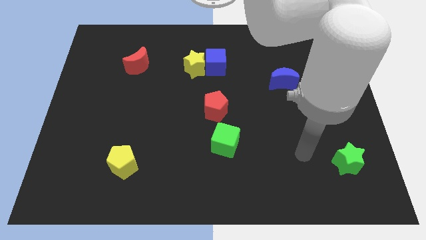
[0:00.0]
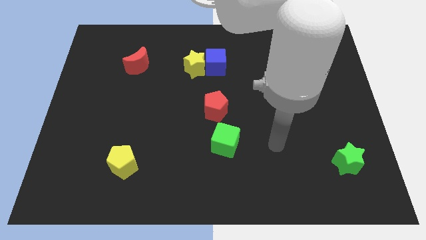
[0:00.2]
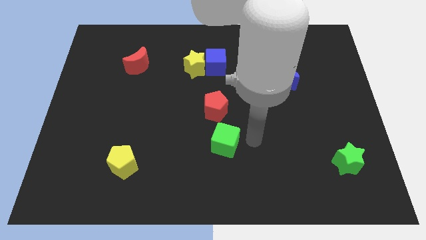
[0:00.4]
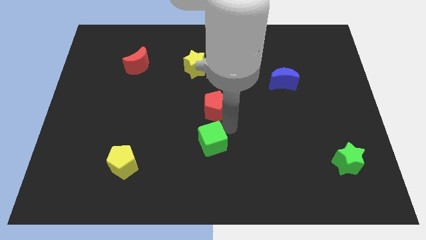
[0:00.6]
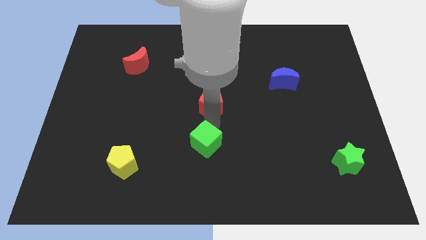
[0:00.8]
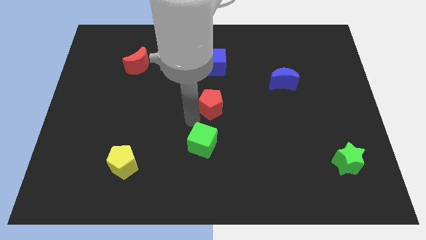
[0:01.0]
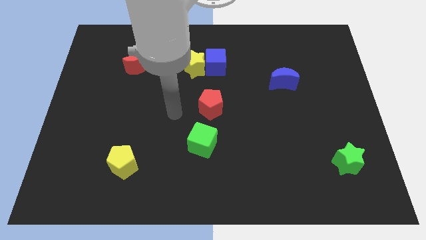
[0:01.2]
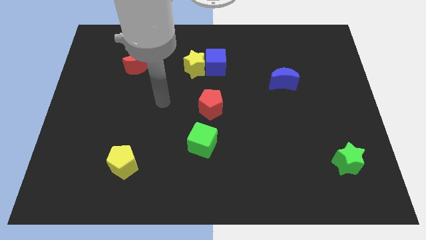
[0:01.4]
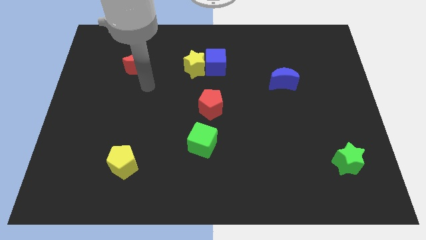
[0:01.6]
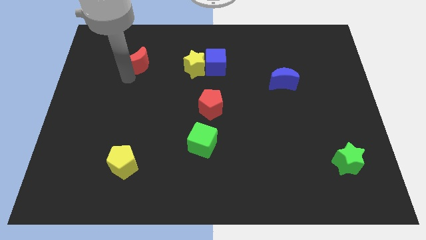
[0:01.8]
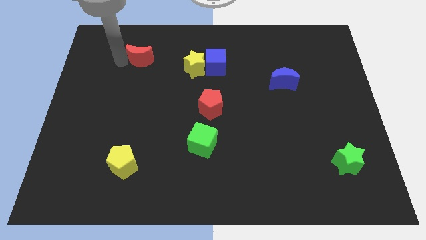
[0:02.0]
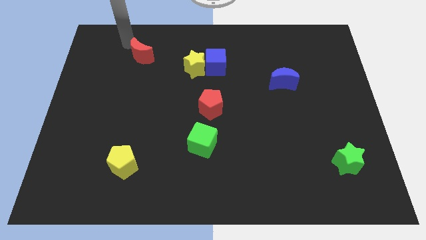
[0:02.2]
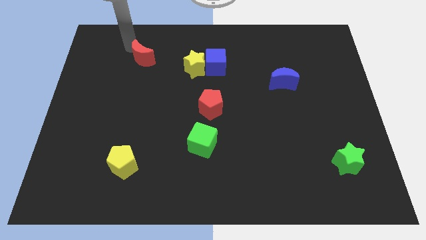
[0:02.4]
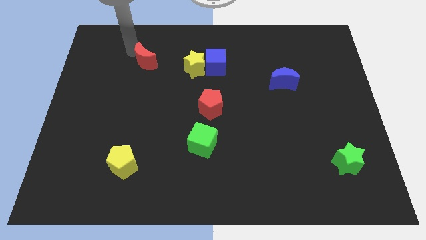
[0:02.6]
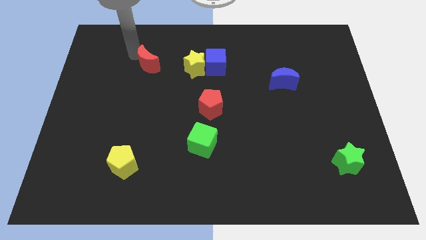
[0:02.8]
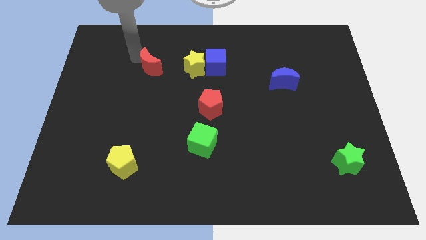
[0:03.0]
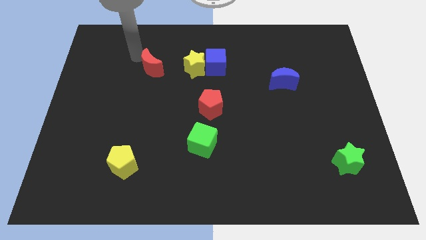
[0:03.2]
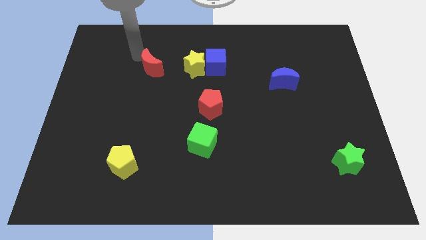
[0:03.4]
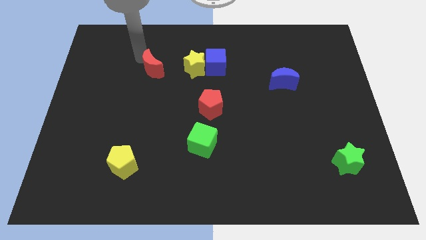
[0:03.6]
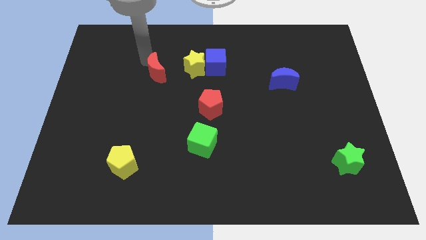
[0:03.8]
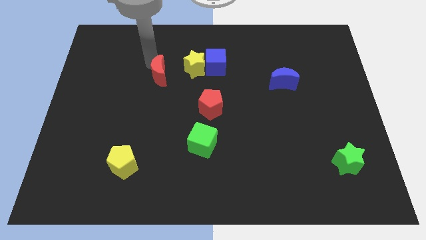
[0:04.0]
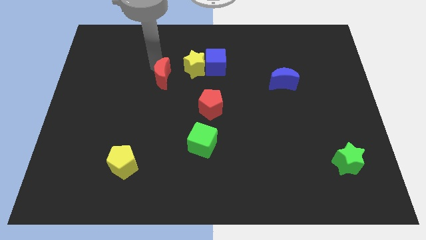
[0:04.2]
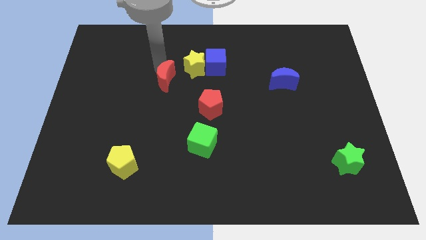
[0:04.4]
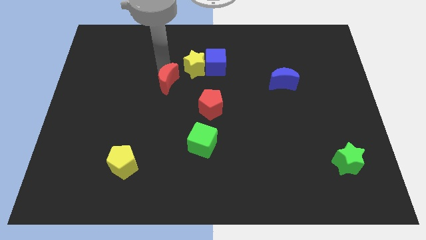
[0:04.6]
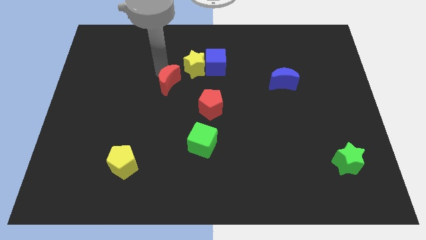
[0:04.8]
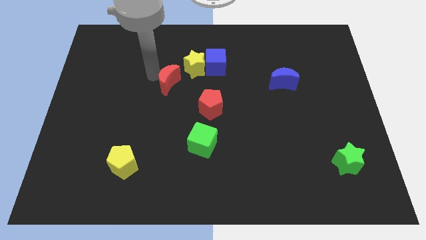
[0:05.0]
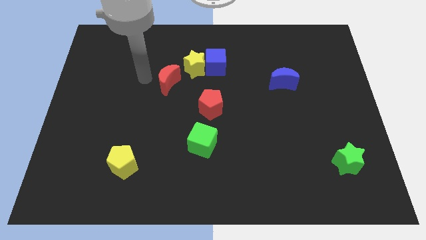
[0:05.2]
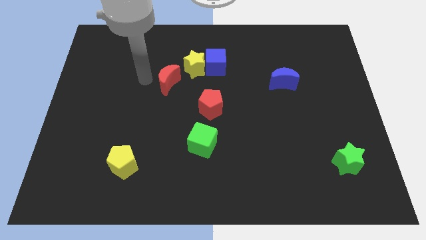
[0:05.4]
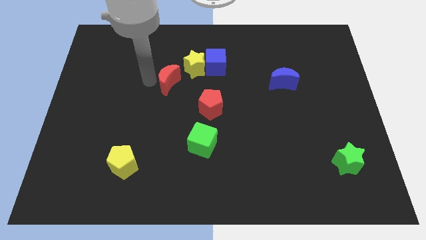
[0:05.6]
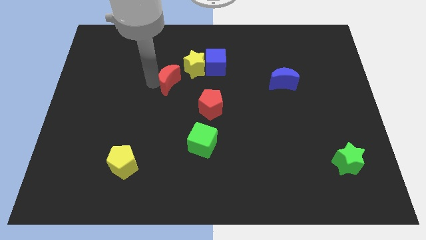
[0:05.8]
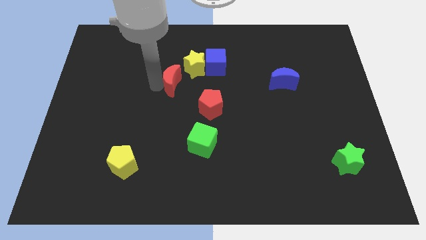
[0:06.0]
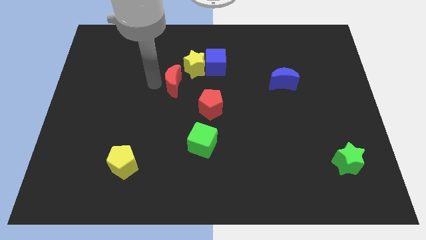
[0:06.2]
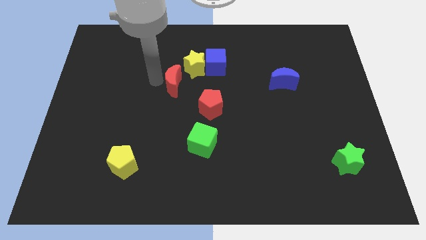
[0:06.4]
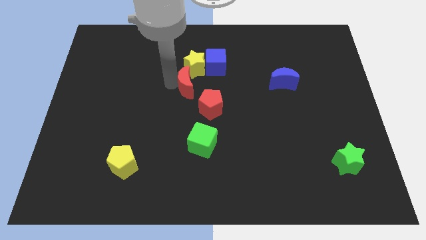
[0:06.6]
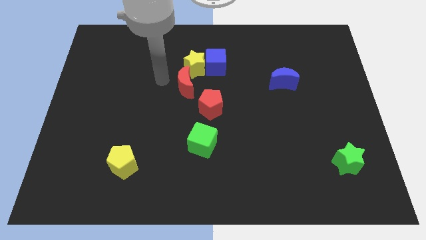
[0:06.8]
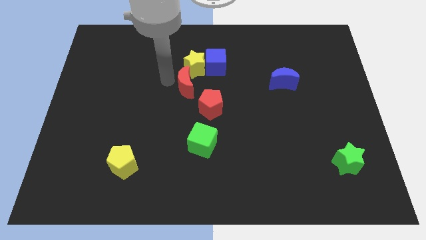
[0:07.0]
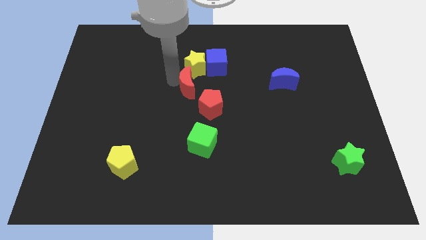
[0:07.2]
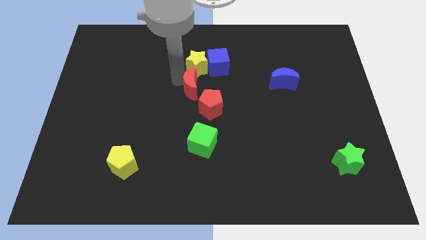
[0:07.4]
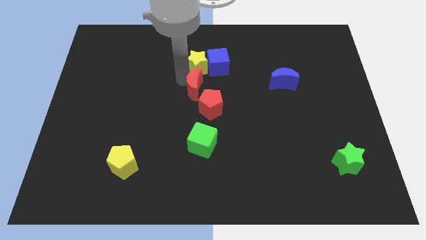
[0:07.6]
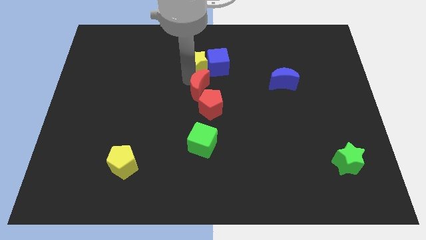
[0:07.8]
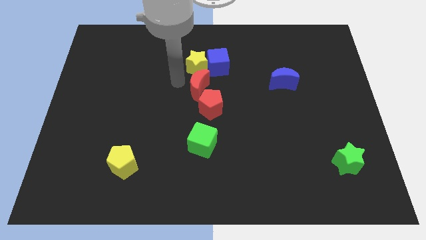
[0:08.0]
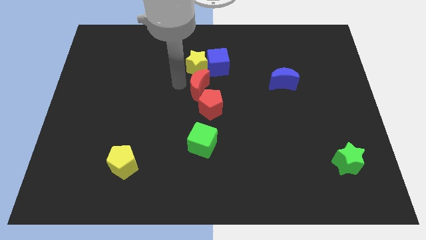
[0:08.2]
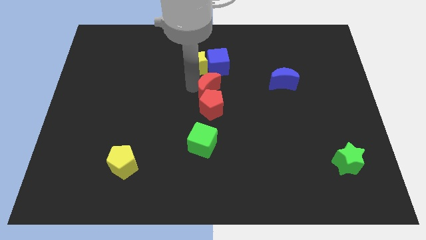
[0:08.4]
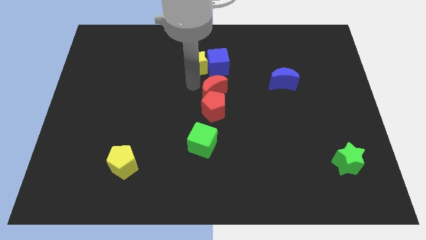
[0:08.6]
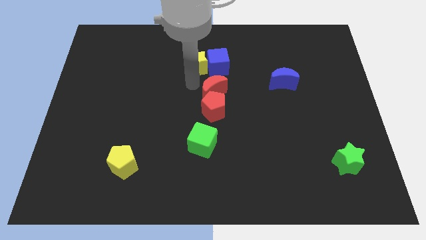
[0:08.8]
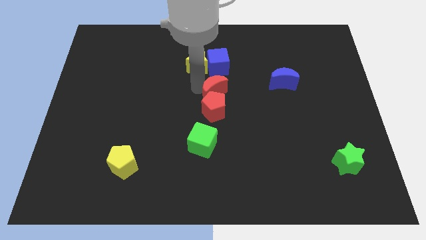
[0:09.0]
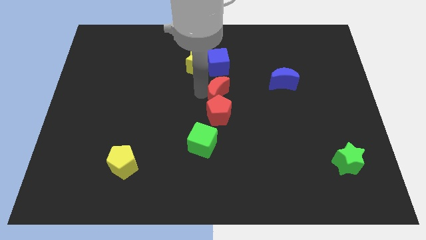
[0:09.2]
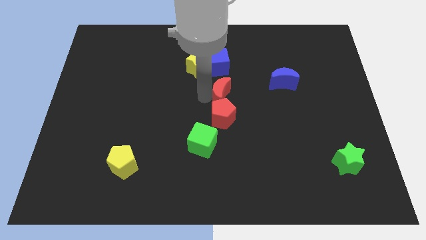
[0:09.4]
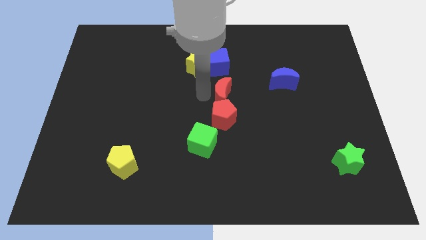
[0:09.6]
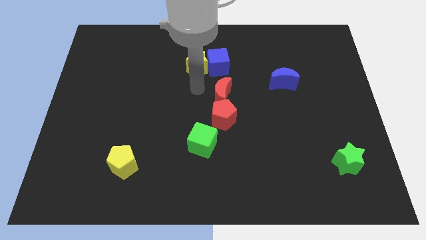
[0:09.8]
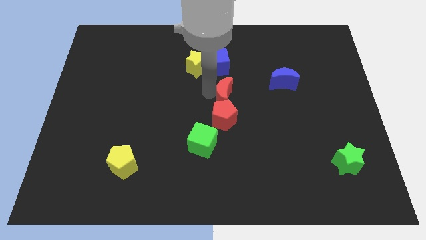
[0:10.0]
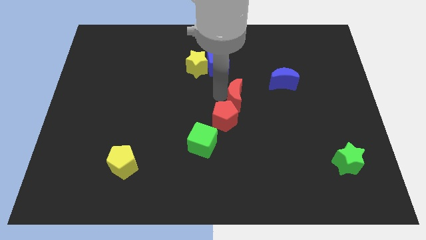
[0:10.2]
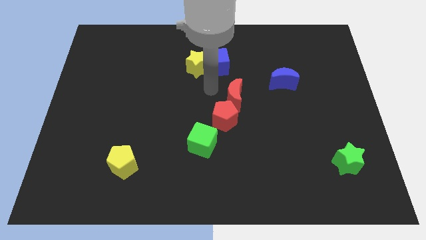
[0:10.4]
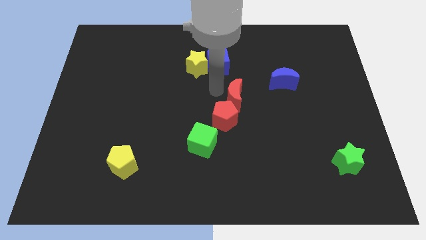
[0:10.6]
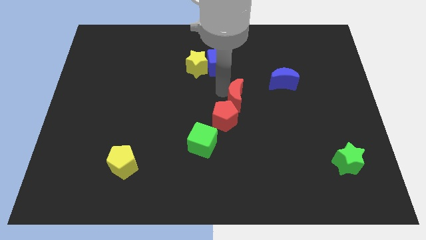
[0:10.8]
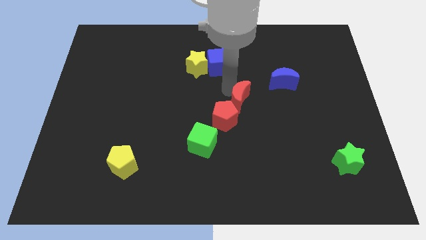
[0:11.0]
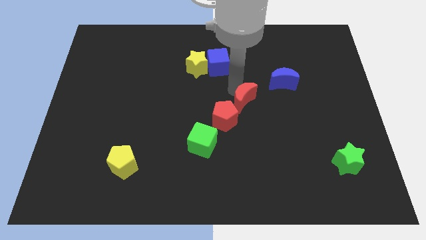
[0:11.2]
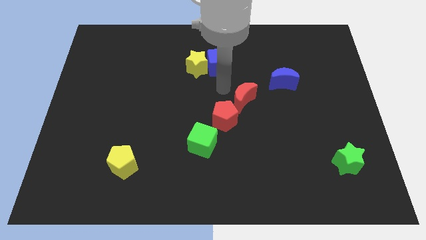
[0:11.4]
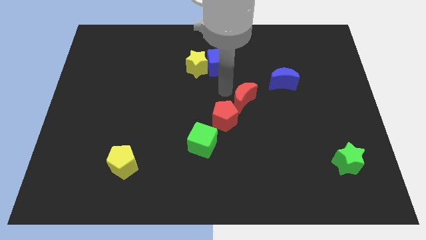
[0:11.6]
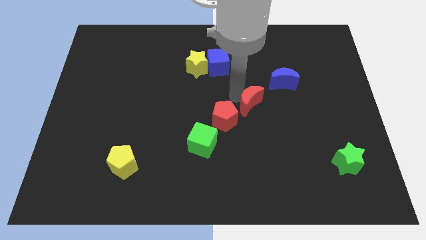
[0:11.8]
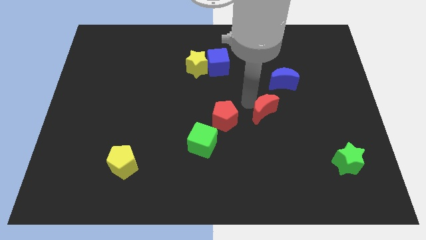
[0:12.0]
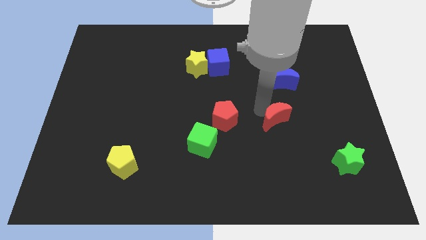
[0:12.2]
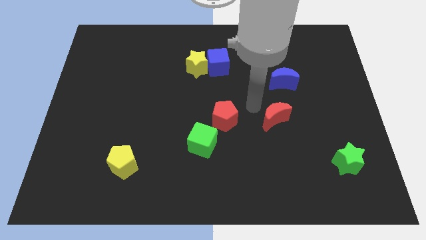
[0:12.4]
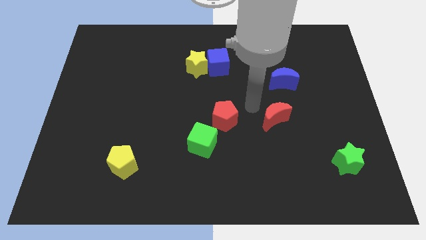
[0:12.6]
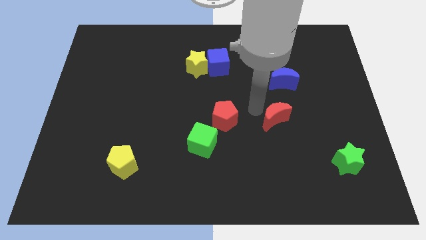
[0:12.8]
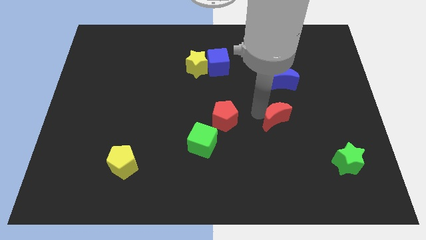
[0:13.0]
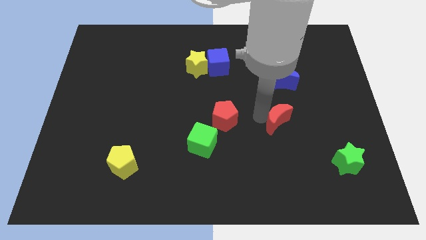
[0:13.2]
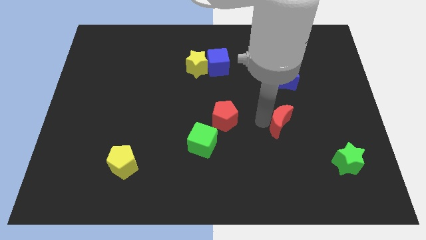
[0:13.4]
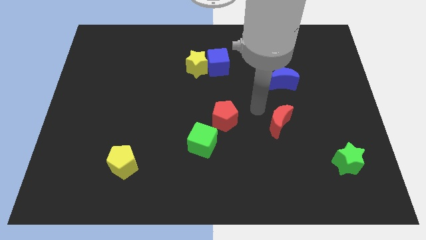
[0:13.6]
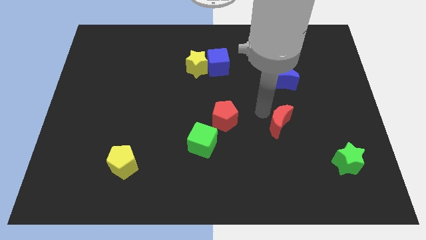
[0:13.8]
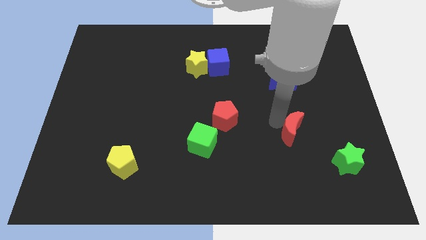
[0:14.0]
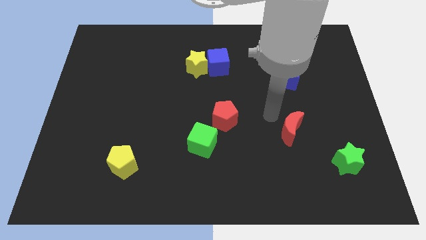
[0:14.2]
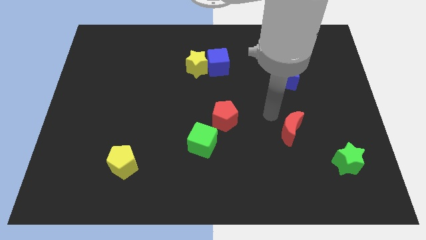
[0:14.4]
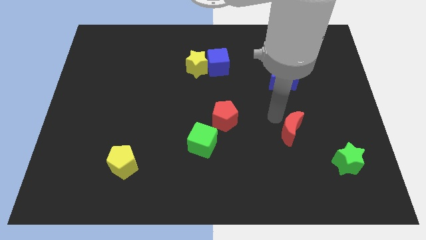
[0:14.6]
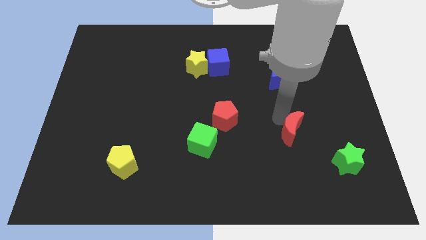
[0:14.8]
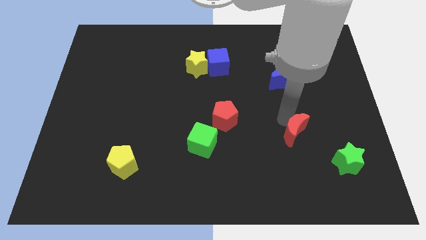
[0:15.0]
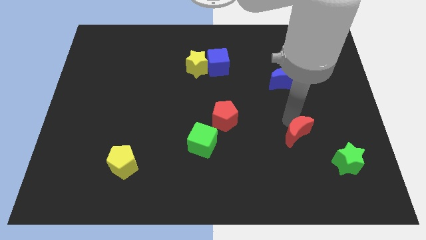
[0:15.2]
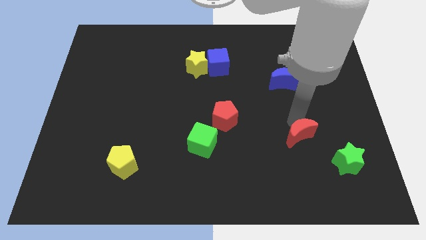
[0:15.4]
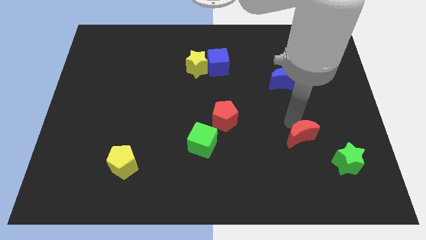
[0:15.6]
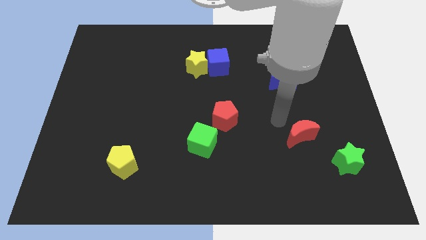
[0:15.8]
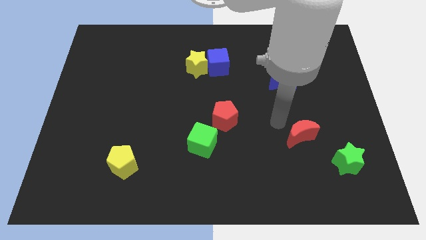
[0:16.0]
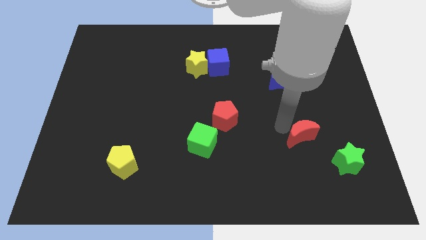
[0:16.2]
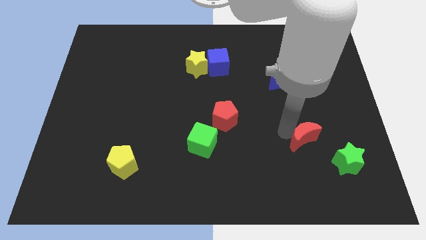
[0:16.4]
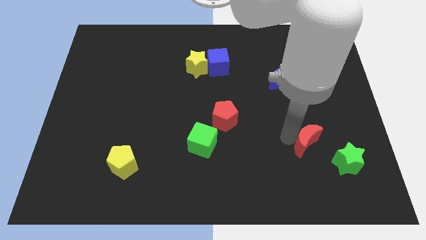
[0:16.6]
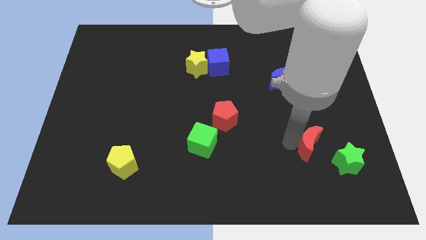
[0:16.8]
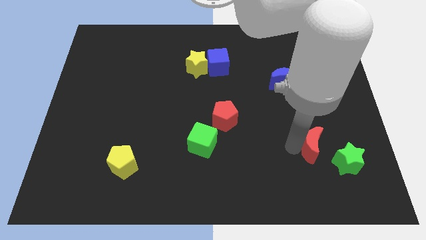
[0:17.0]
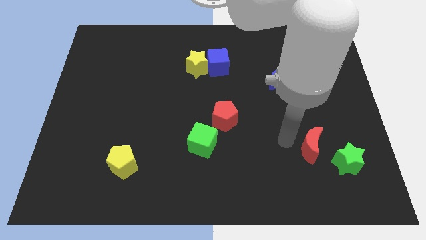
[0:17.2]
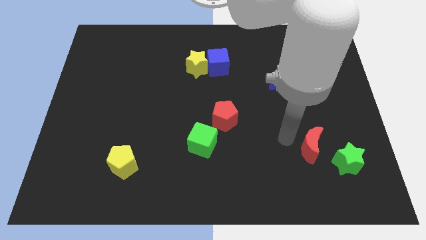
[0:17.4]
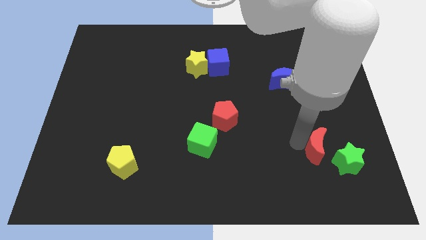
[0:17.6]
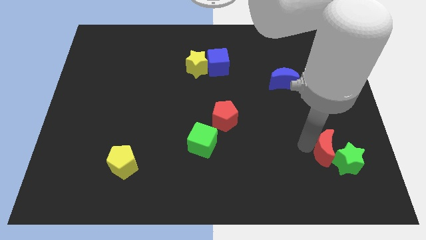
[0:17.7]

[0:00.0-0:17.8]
move the red moon to the green star
